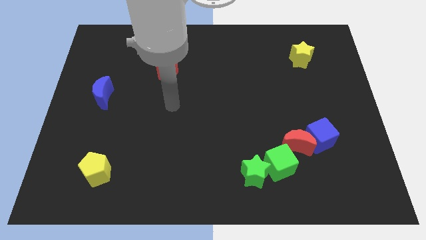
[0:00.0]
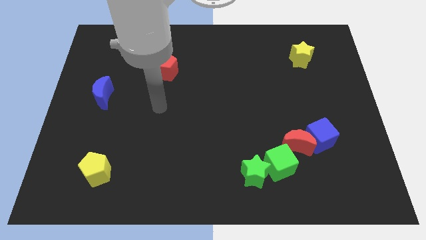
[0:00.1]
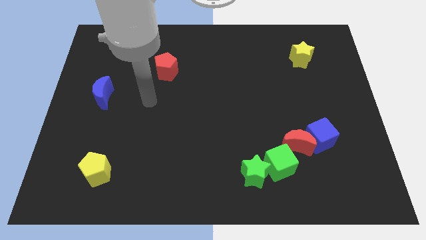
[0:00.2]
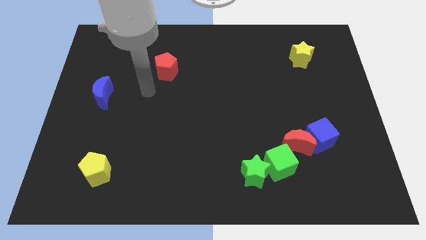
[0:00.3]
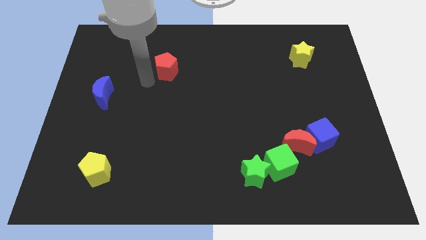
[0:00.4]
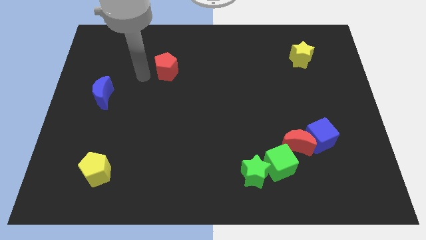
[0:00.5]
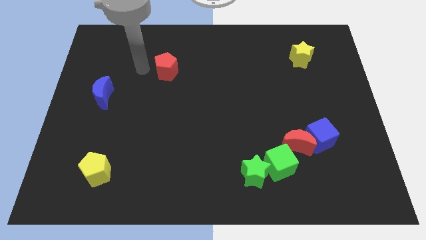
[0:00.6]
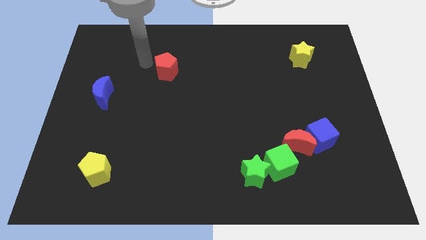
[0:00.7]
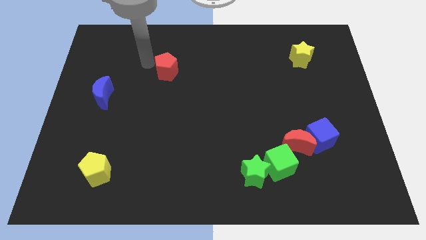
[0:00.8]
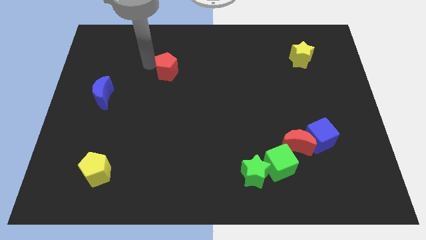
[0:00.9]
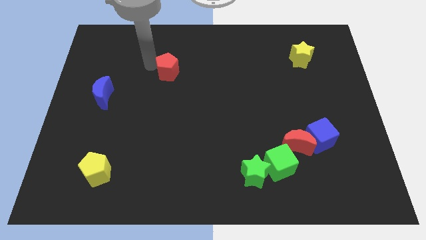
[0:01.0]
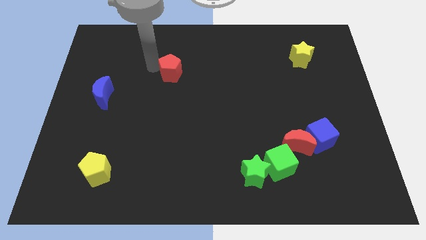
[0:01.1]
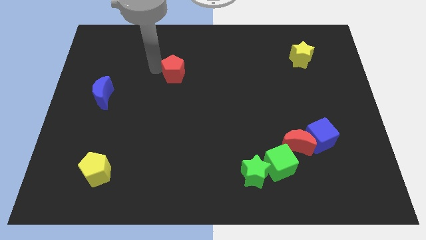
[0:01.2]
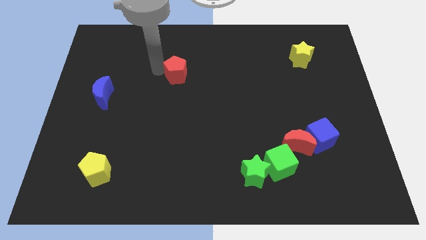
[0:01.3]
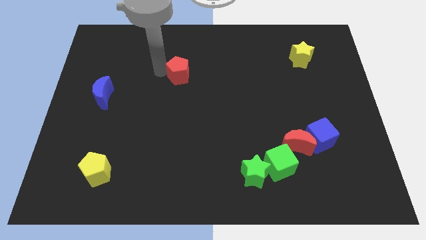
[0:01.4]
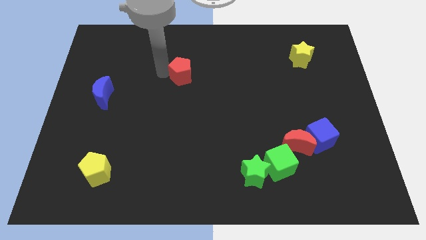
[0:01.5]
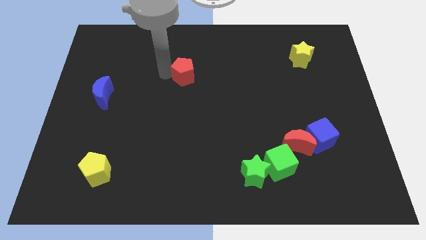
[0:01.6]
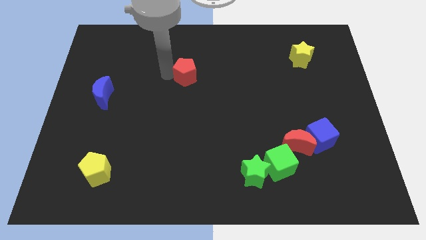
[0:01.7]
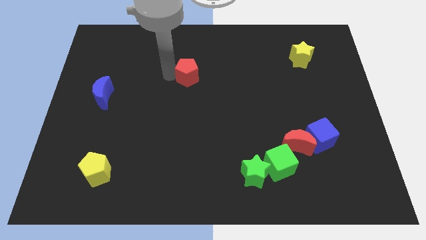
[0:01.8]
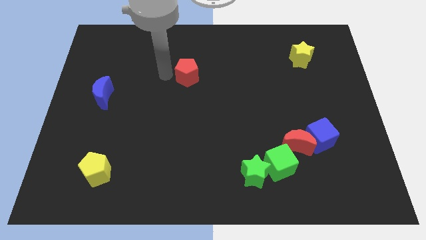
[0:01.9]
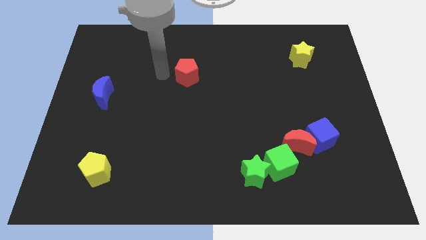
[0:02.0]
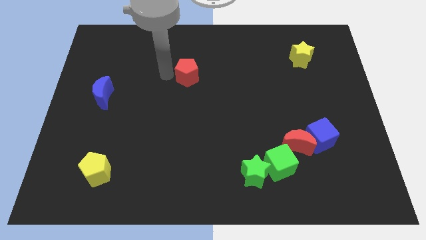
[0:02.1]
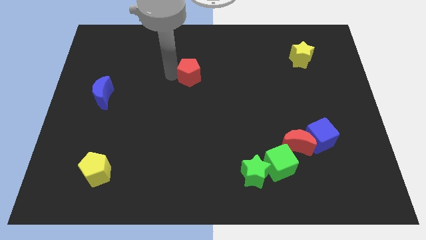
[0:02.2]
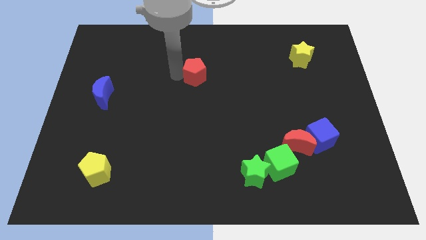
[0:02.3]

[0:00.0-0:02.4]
slide the red pentagon slightly right

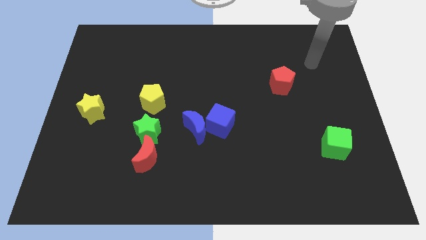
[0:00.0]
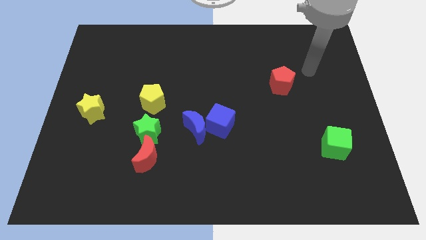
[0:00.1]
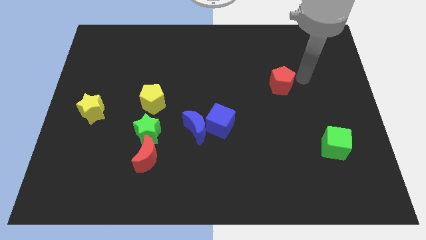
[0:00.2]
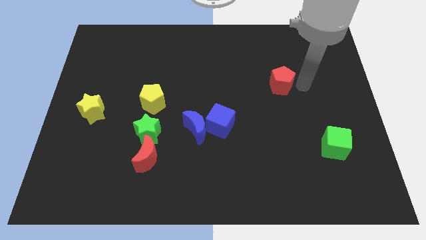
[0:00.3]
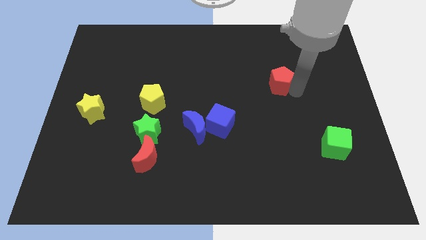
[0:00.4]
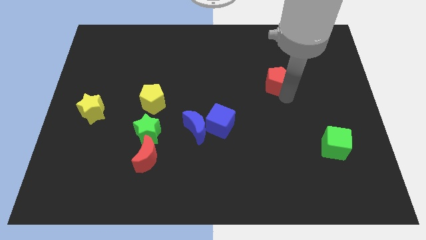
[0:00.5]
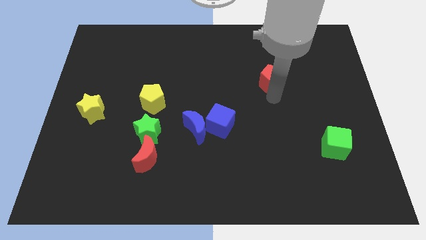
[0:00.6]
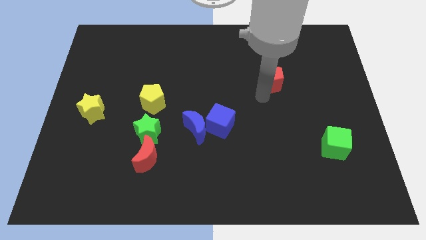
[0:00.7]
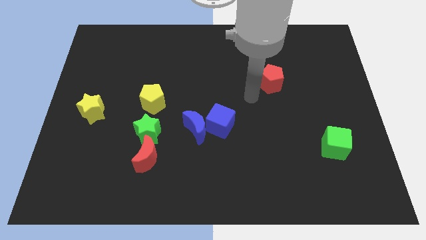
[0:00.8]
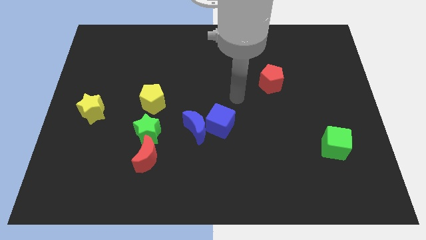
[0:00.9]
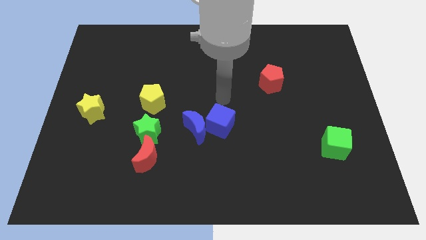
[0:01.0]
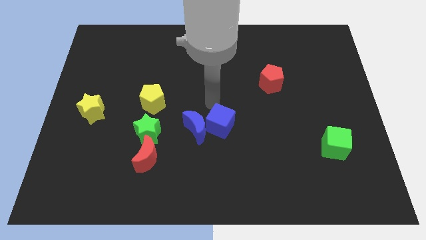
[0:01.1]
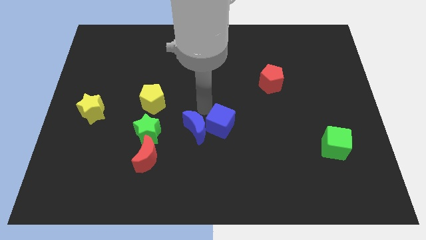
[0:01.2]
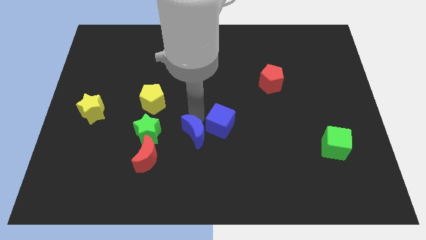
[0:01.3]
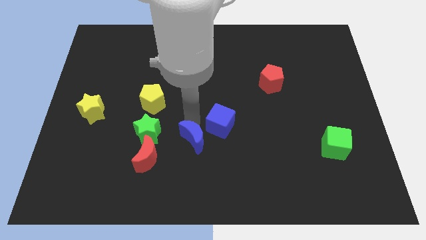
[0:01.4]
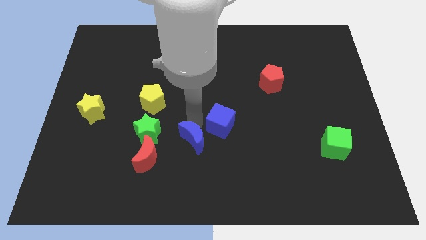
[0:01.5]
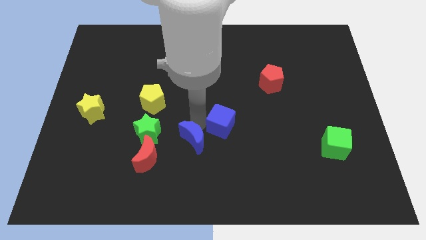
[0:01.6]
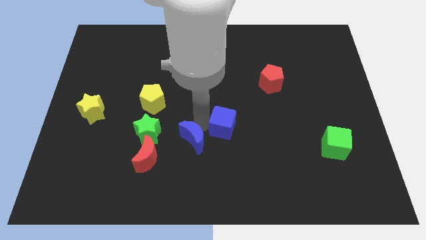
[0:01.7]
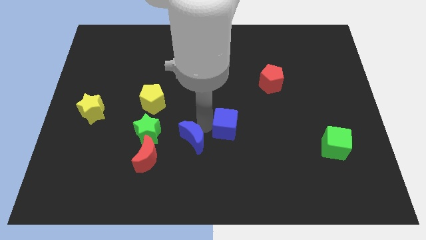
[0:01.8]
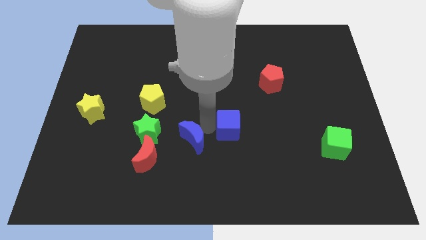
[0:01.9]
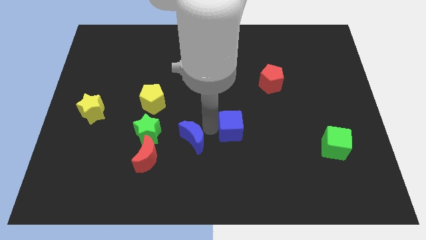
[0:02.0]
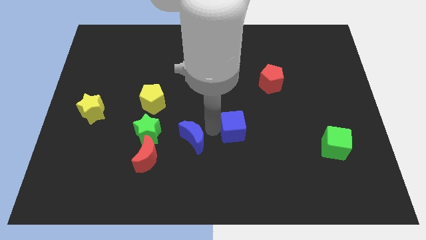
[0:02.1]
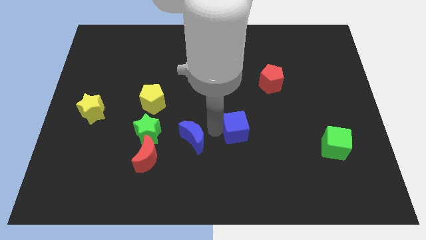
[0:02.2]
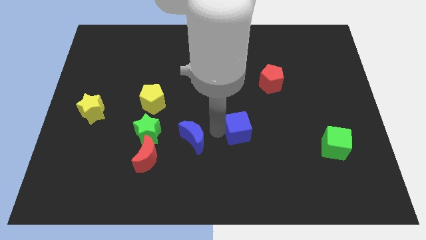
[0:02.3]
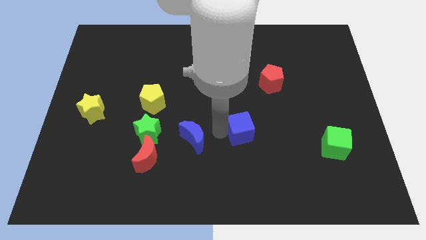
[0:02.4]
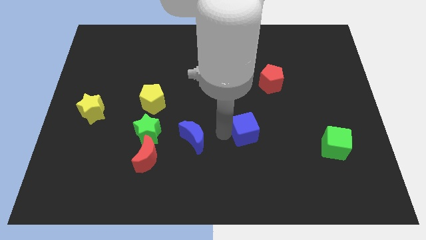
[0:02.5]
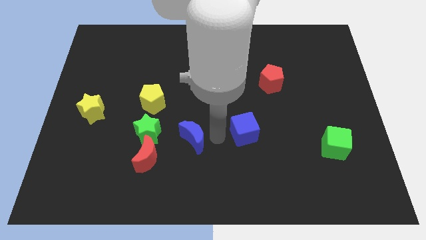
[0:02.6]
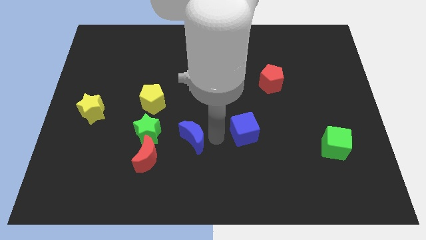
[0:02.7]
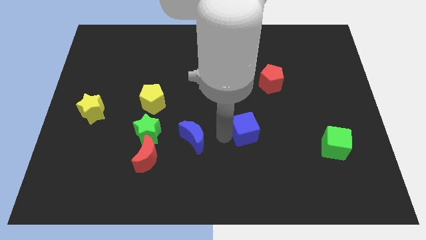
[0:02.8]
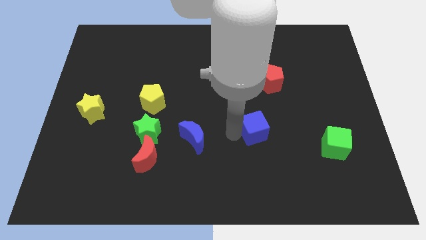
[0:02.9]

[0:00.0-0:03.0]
move the blue cube somewhat to the right

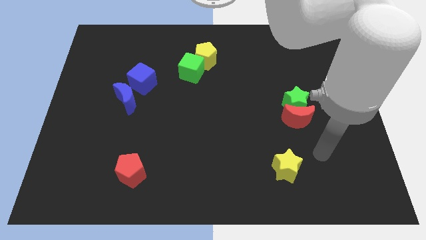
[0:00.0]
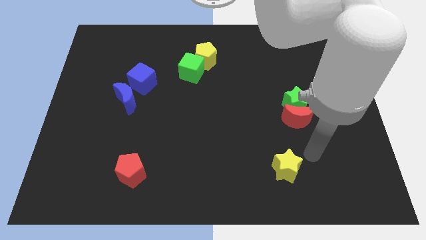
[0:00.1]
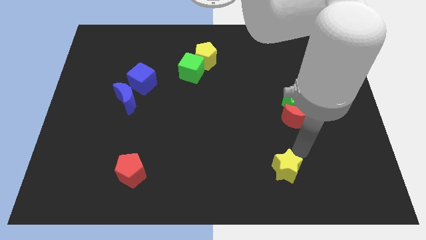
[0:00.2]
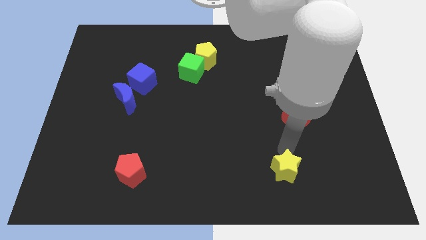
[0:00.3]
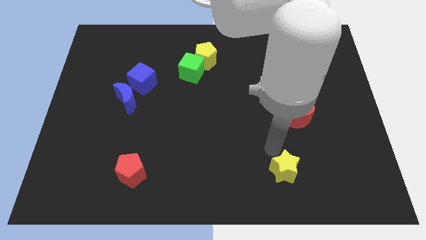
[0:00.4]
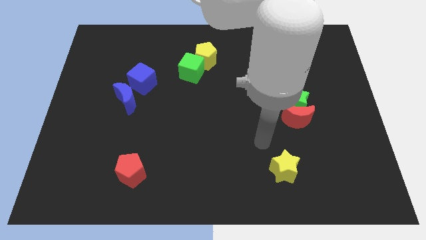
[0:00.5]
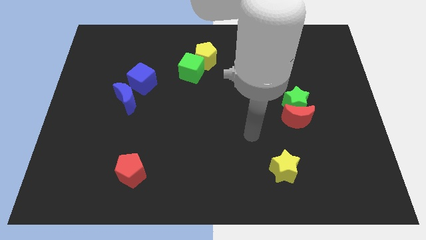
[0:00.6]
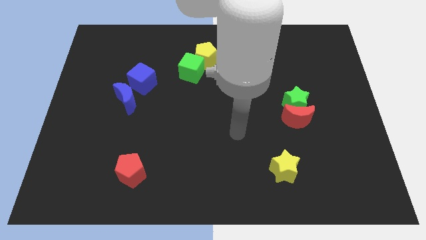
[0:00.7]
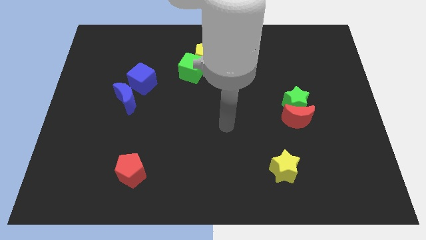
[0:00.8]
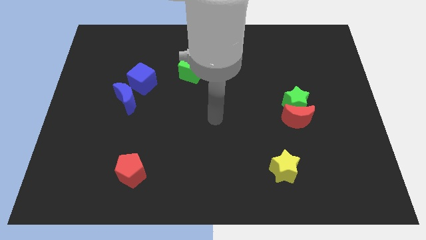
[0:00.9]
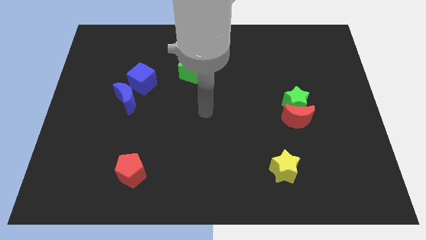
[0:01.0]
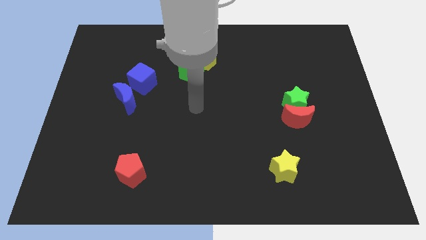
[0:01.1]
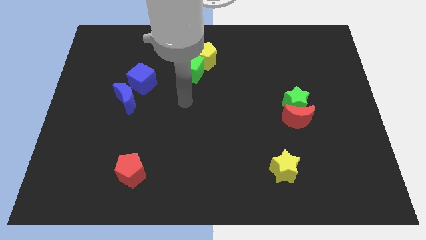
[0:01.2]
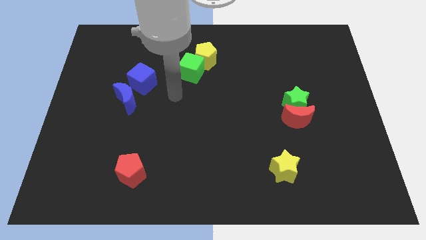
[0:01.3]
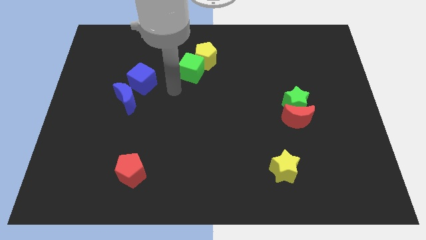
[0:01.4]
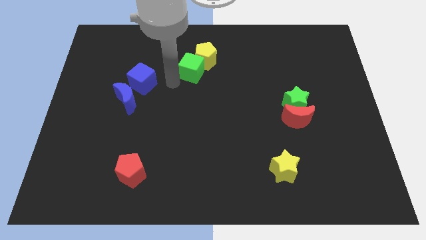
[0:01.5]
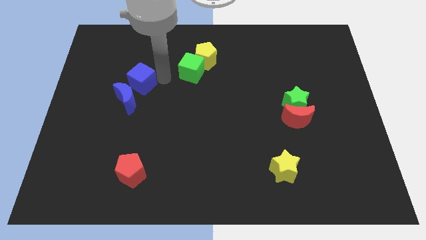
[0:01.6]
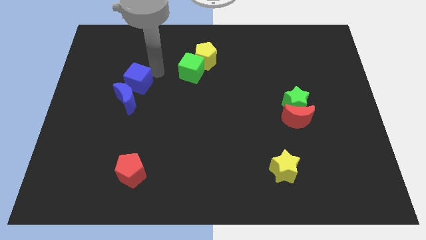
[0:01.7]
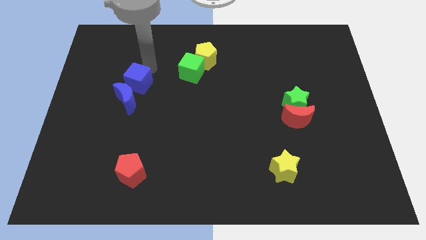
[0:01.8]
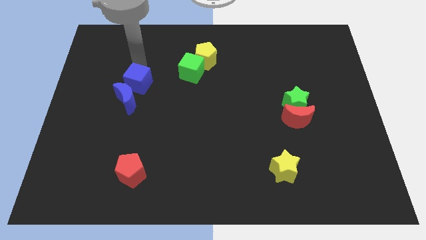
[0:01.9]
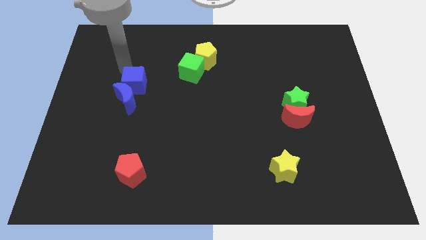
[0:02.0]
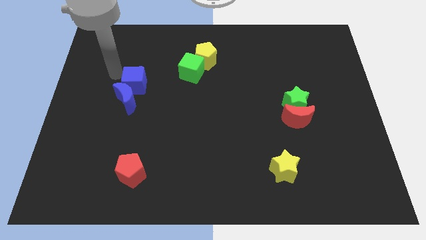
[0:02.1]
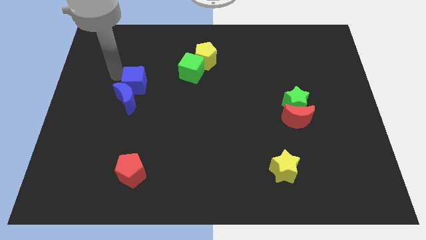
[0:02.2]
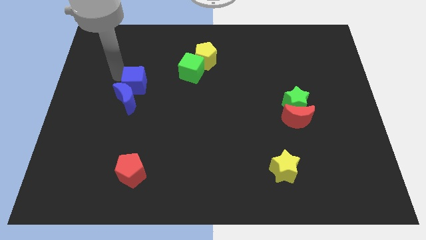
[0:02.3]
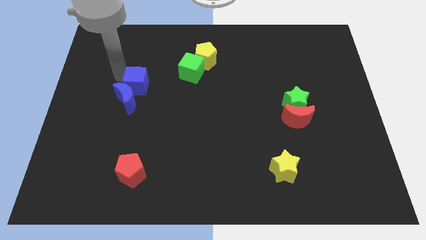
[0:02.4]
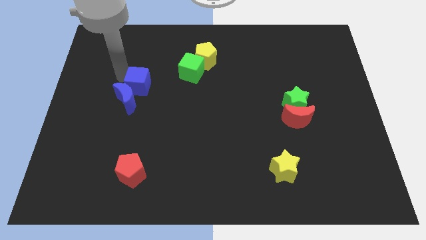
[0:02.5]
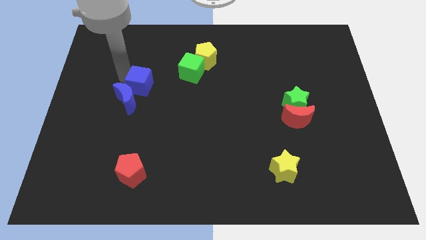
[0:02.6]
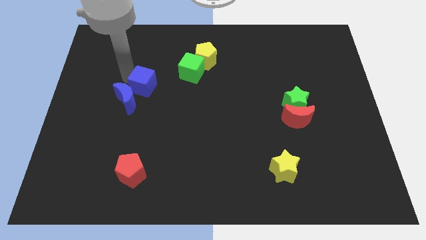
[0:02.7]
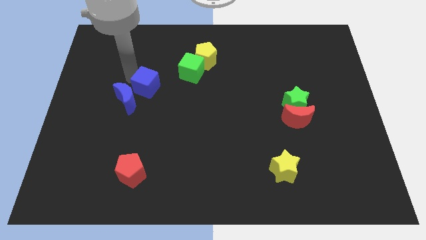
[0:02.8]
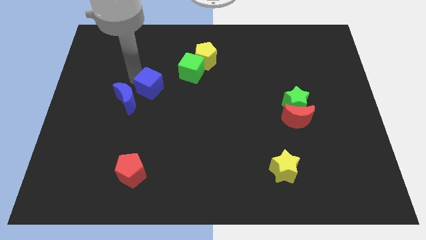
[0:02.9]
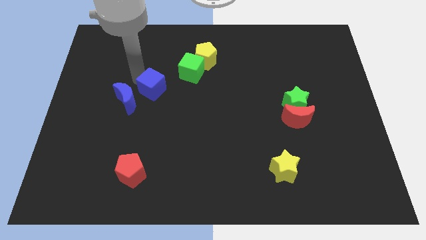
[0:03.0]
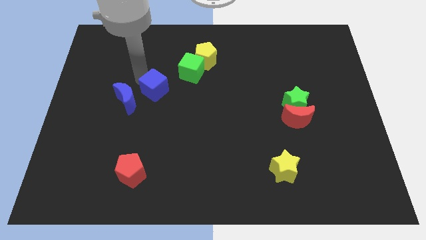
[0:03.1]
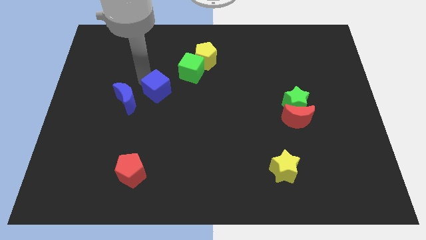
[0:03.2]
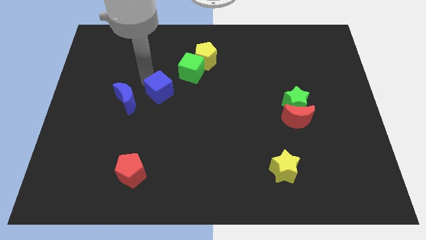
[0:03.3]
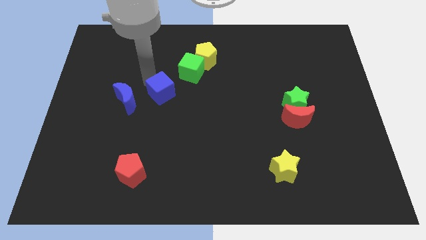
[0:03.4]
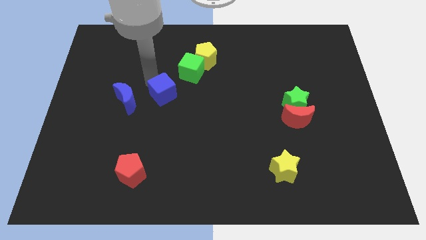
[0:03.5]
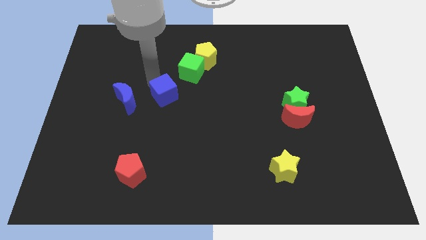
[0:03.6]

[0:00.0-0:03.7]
slightly push the blue cube diagonally down and to the right
